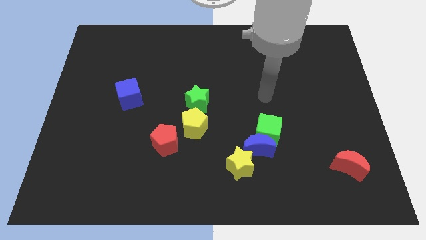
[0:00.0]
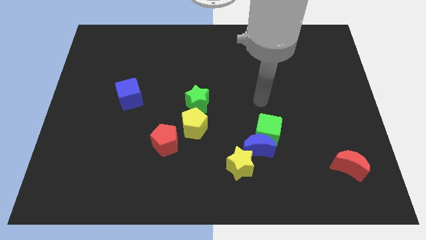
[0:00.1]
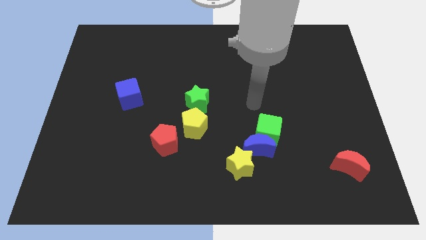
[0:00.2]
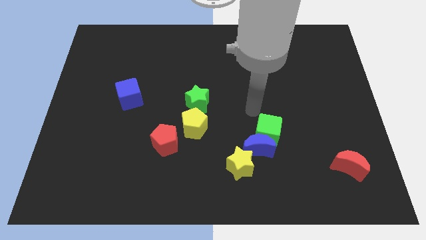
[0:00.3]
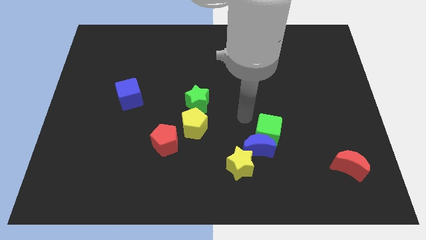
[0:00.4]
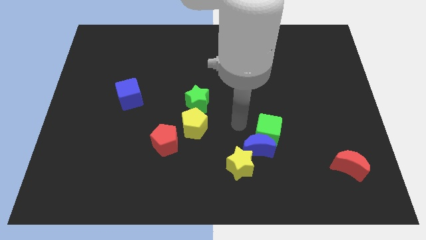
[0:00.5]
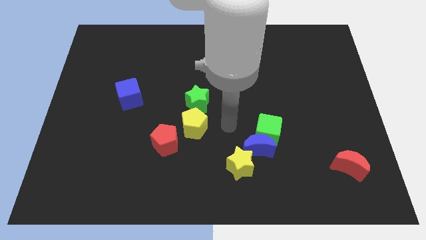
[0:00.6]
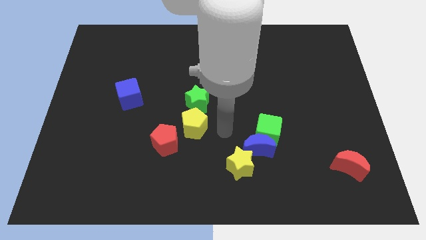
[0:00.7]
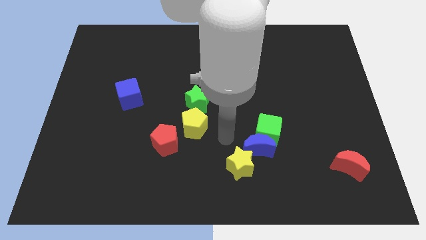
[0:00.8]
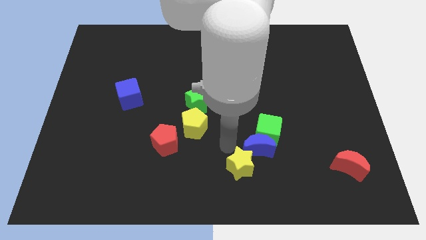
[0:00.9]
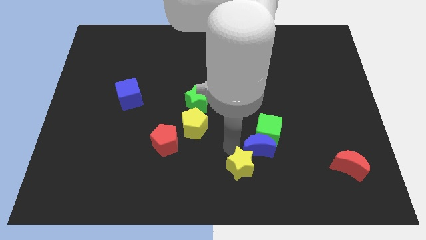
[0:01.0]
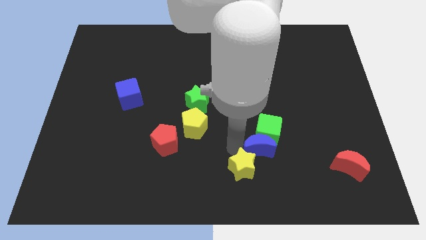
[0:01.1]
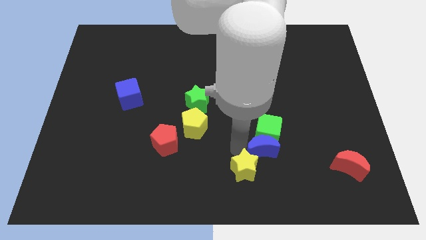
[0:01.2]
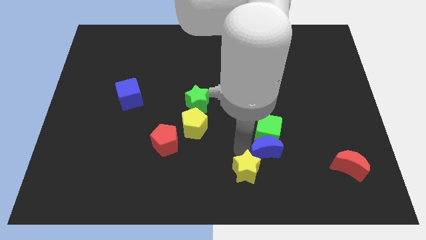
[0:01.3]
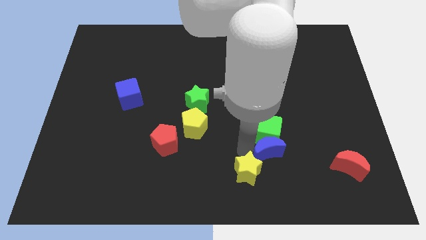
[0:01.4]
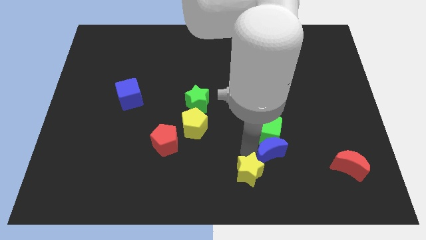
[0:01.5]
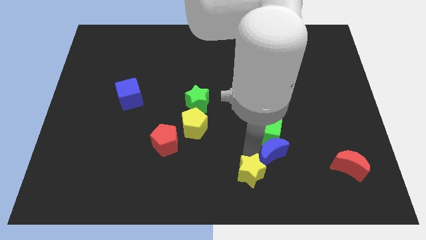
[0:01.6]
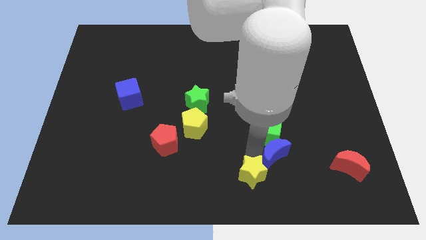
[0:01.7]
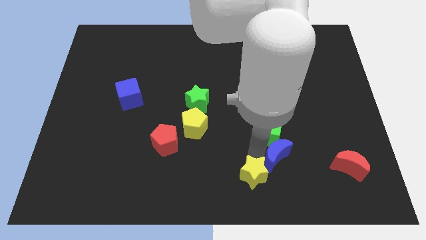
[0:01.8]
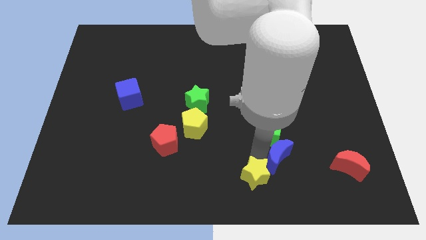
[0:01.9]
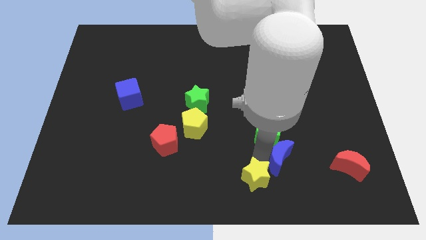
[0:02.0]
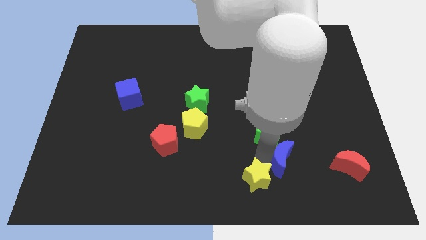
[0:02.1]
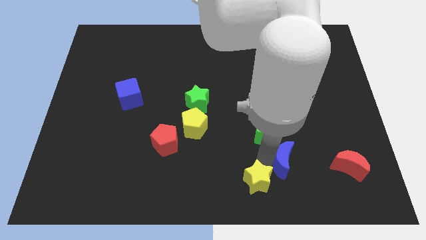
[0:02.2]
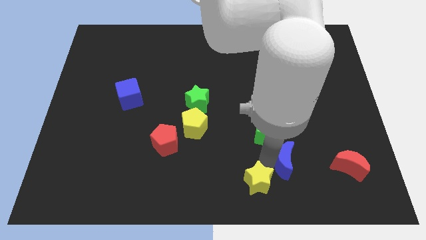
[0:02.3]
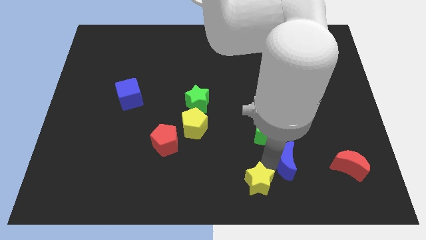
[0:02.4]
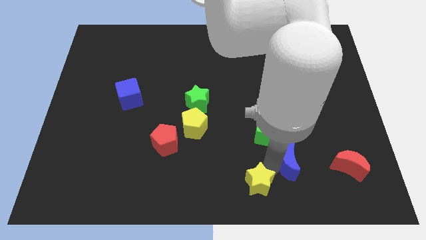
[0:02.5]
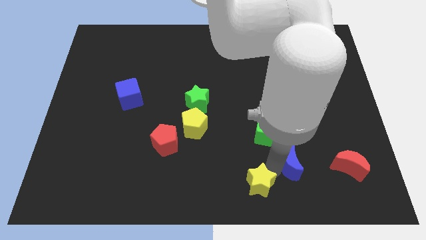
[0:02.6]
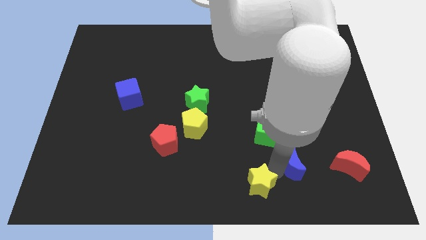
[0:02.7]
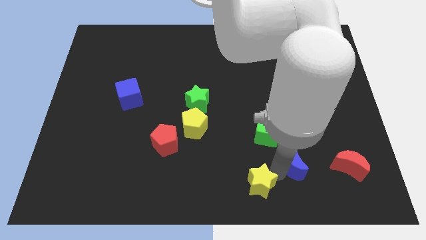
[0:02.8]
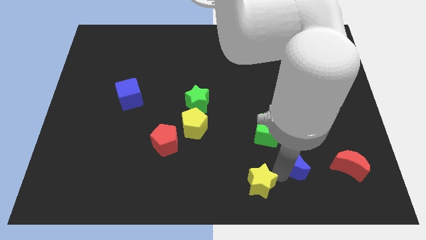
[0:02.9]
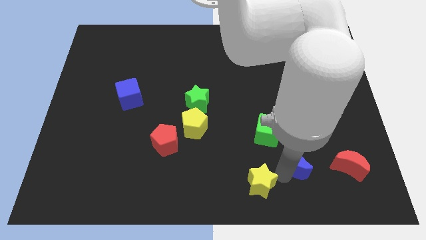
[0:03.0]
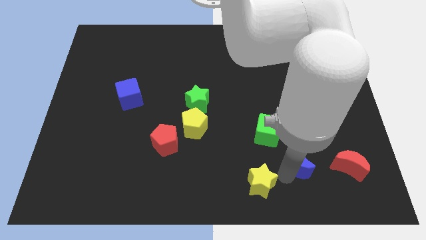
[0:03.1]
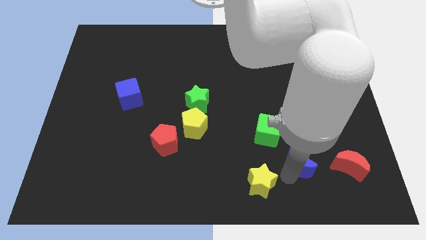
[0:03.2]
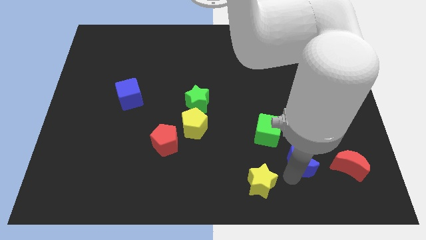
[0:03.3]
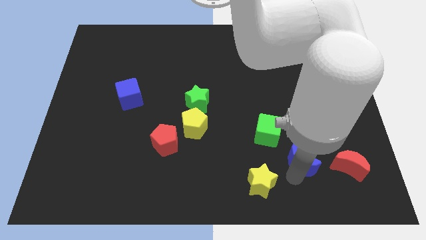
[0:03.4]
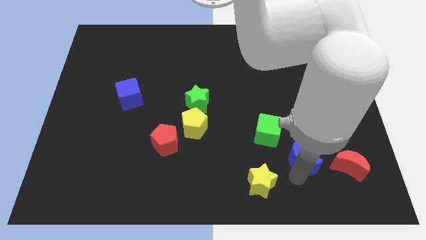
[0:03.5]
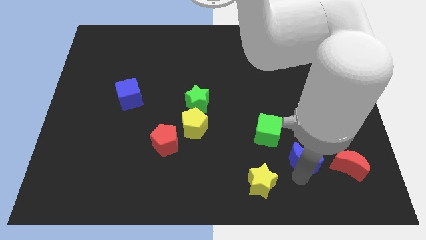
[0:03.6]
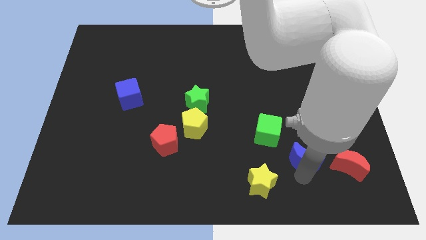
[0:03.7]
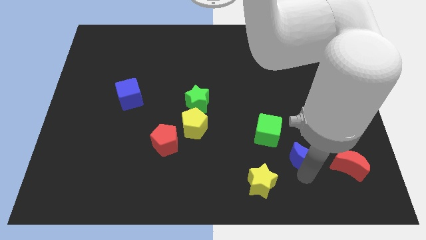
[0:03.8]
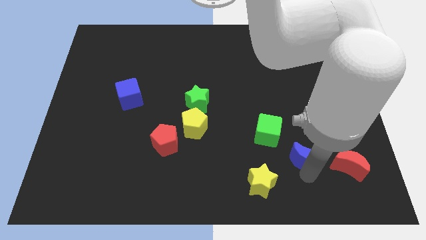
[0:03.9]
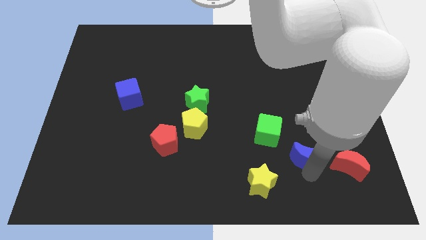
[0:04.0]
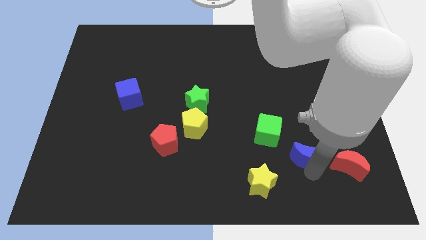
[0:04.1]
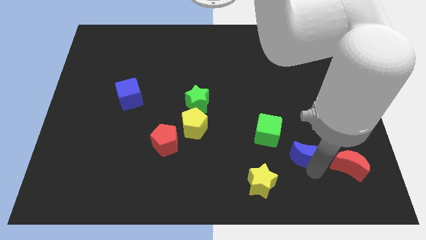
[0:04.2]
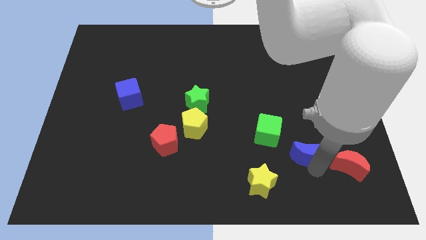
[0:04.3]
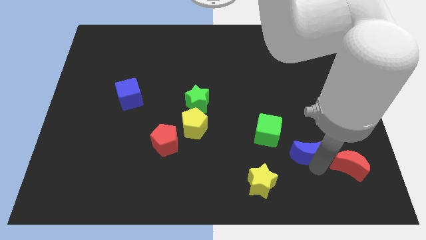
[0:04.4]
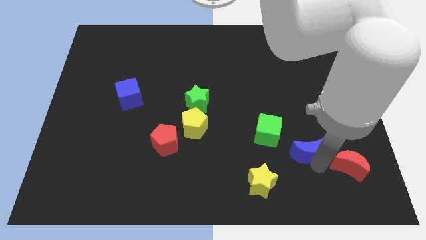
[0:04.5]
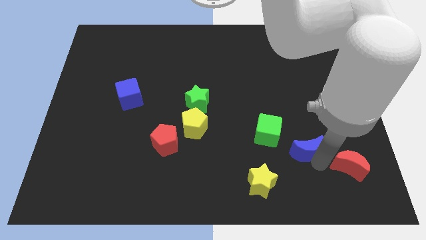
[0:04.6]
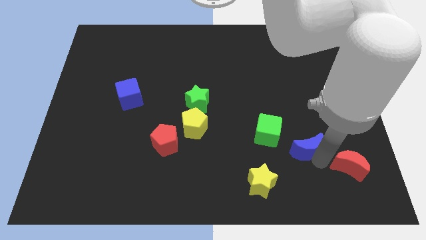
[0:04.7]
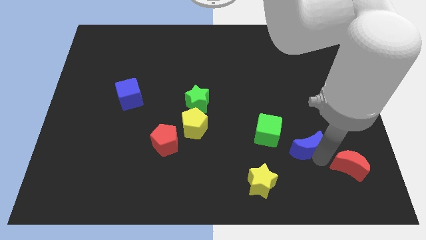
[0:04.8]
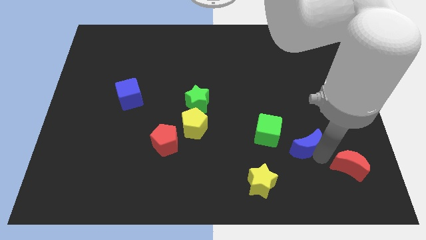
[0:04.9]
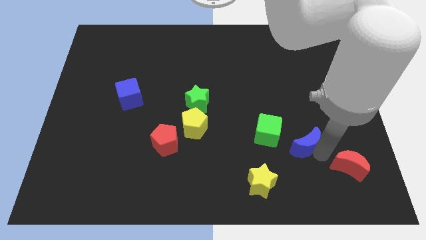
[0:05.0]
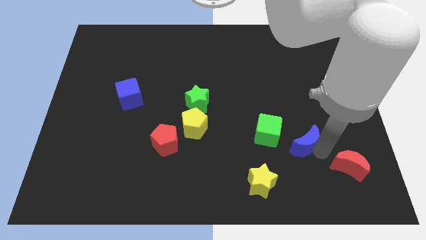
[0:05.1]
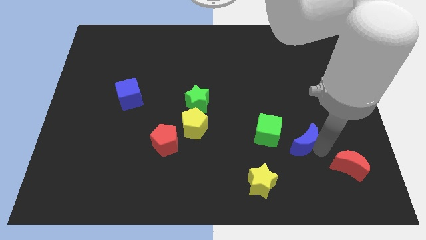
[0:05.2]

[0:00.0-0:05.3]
move the blue moon away from the green cube and yellow star

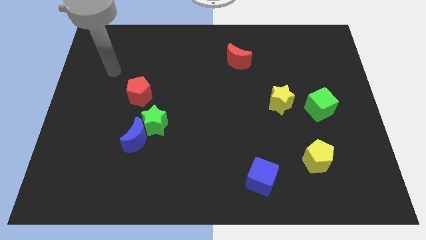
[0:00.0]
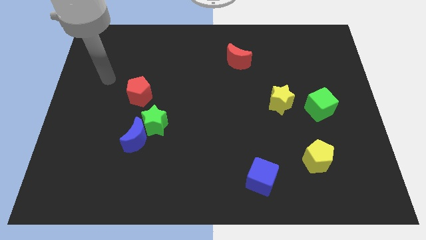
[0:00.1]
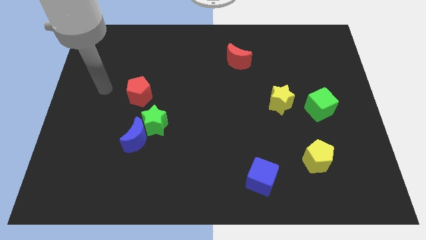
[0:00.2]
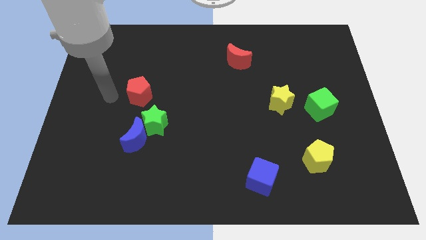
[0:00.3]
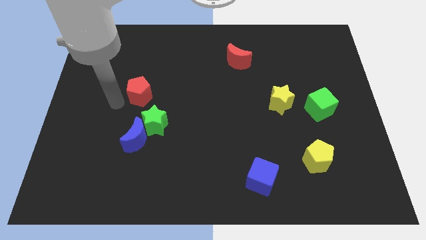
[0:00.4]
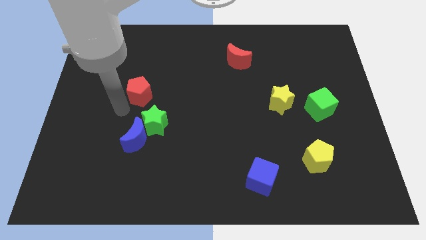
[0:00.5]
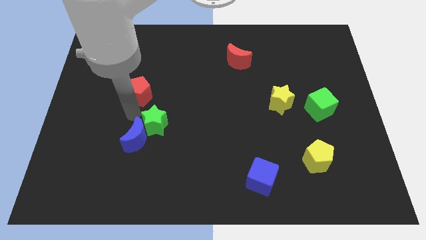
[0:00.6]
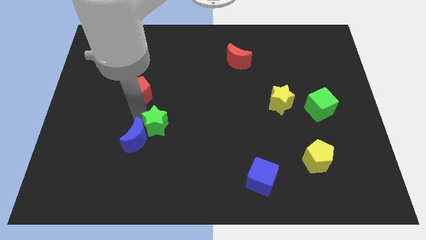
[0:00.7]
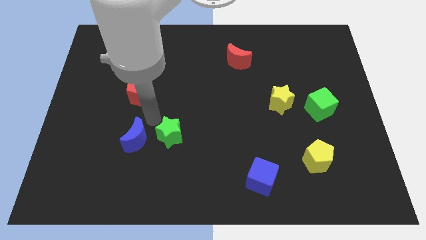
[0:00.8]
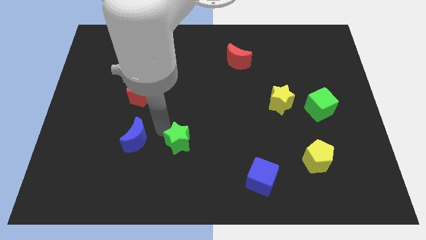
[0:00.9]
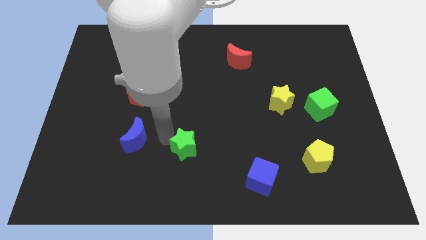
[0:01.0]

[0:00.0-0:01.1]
separate the blue moon from the green star

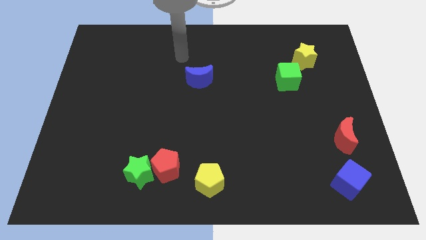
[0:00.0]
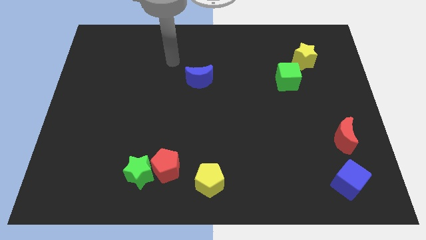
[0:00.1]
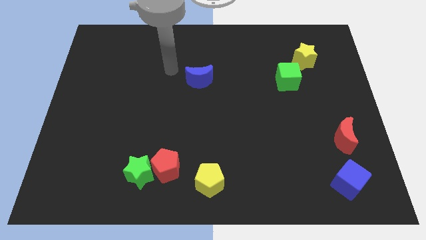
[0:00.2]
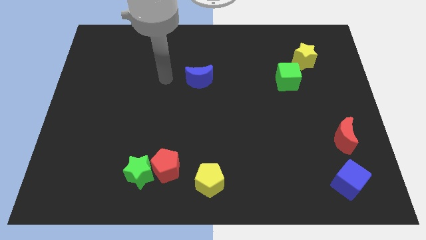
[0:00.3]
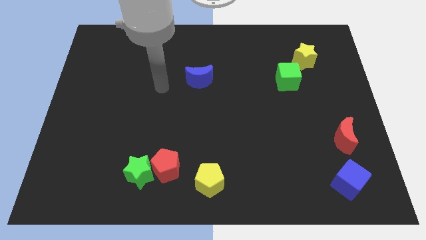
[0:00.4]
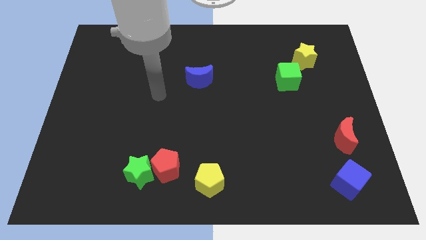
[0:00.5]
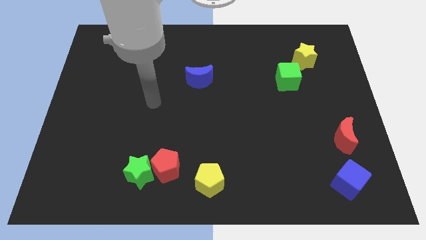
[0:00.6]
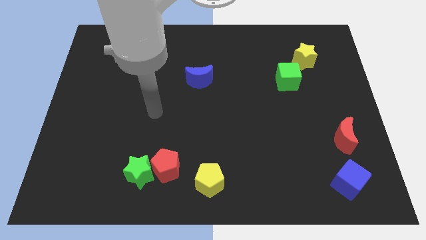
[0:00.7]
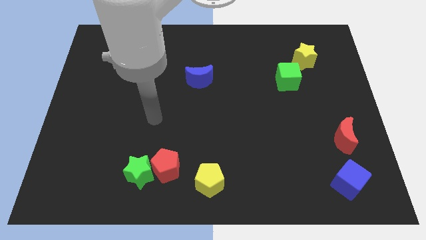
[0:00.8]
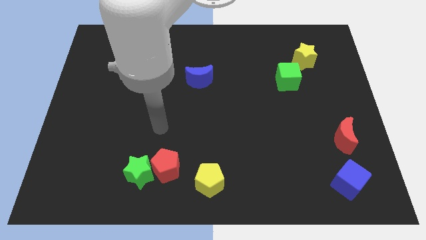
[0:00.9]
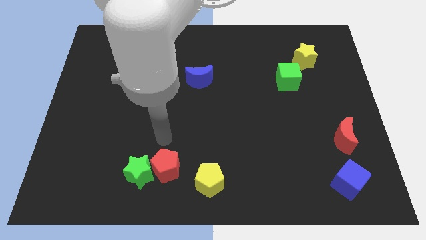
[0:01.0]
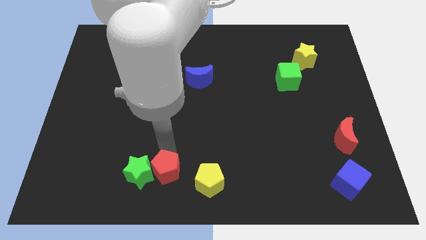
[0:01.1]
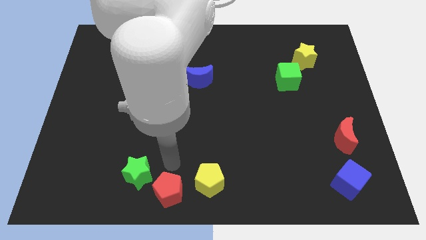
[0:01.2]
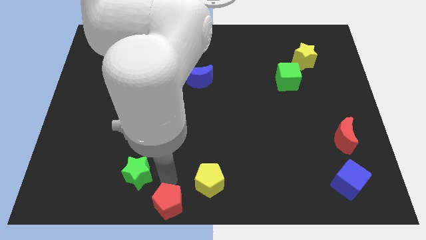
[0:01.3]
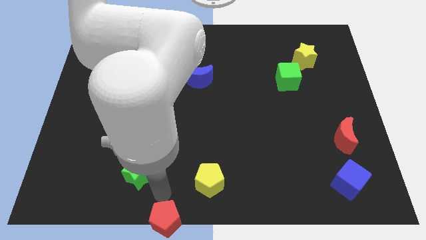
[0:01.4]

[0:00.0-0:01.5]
separate the green star from the red pentagon

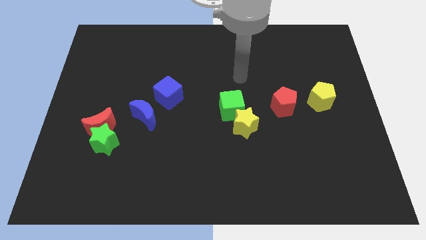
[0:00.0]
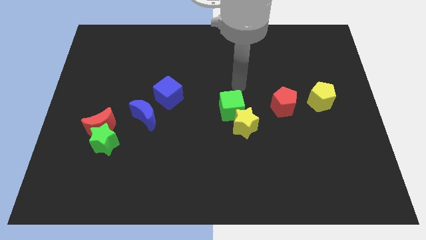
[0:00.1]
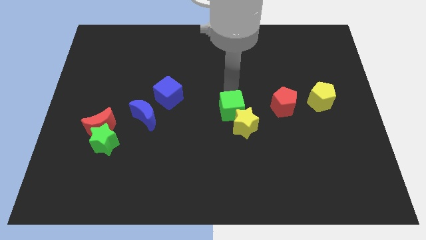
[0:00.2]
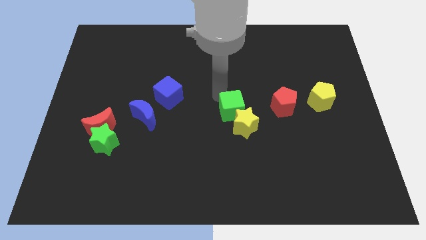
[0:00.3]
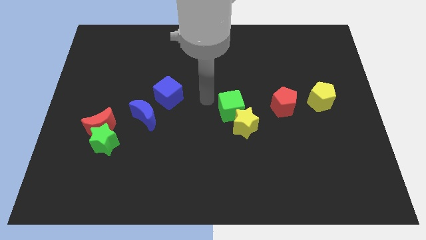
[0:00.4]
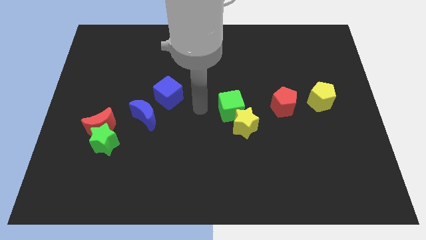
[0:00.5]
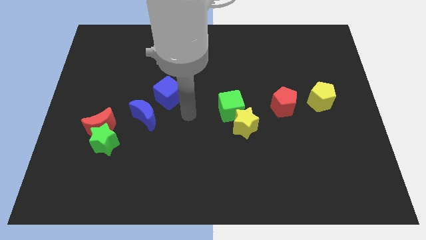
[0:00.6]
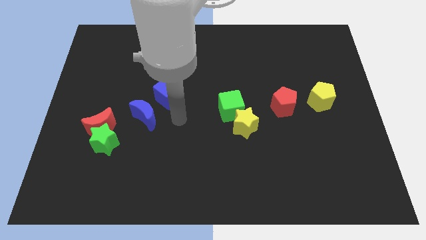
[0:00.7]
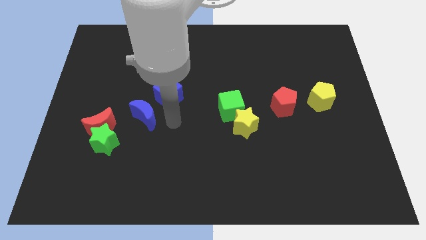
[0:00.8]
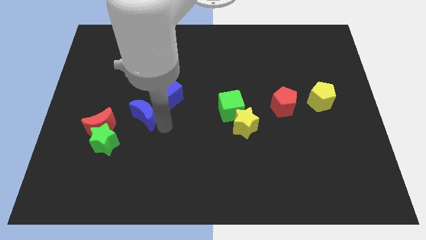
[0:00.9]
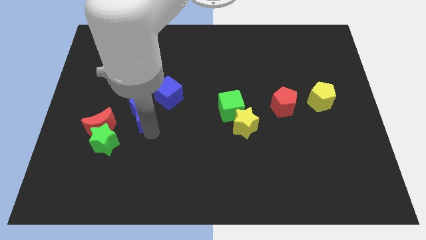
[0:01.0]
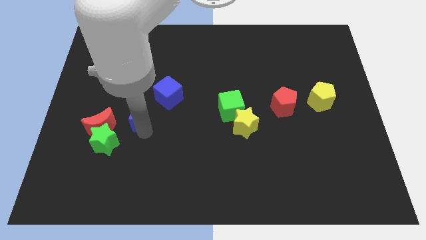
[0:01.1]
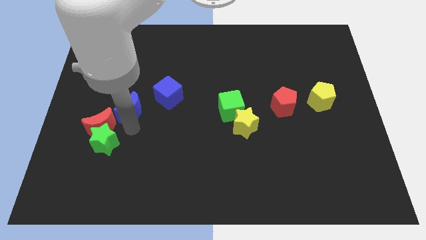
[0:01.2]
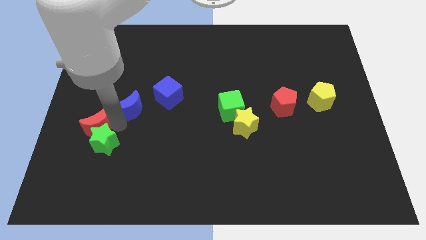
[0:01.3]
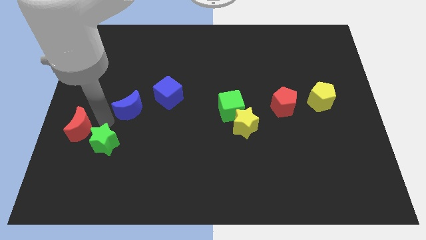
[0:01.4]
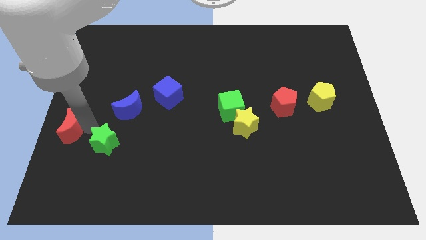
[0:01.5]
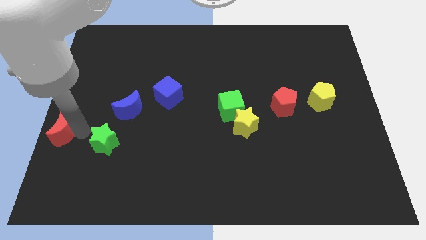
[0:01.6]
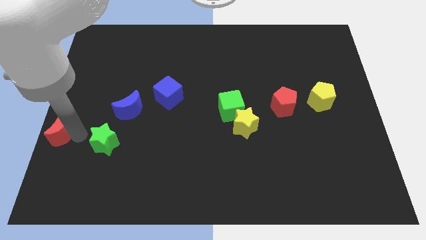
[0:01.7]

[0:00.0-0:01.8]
separate the green star from the red moon
